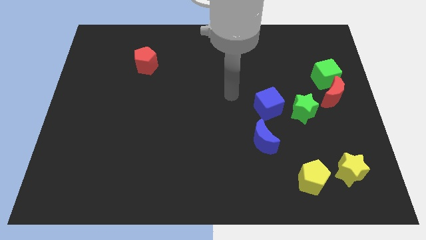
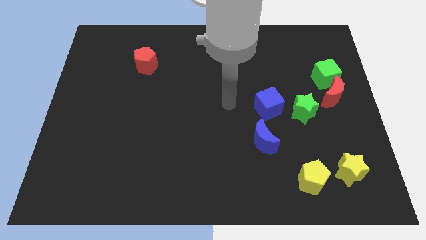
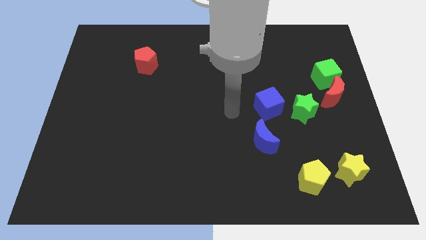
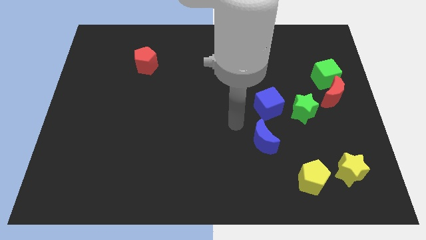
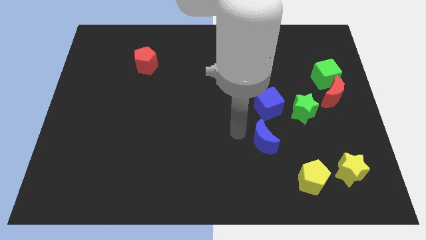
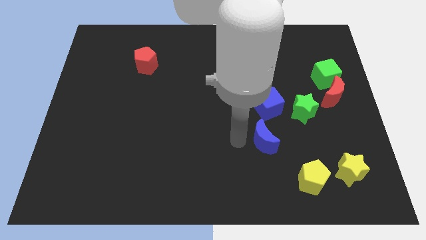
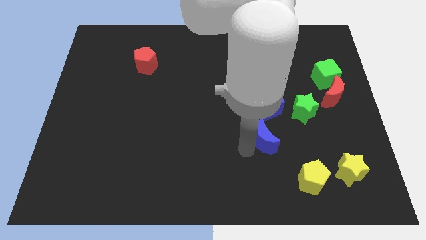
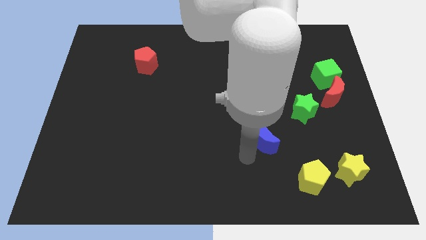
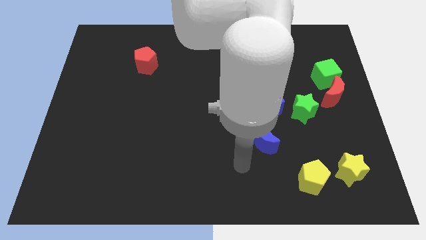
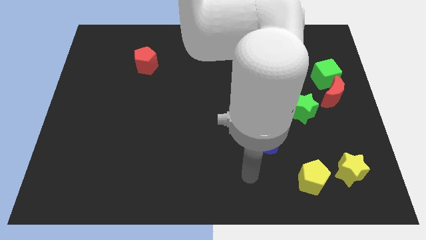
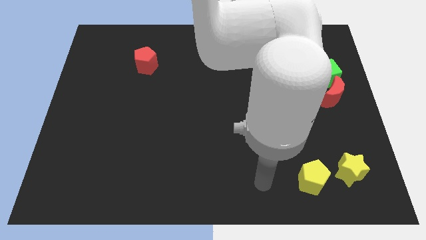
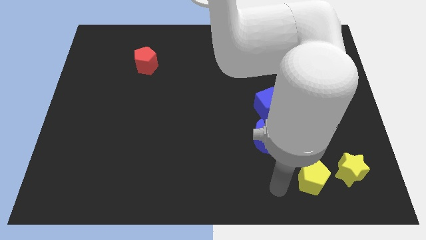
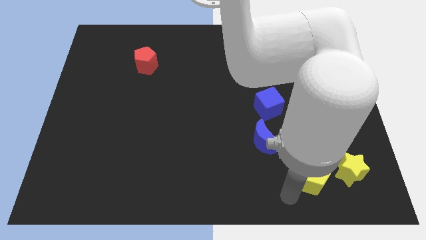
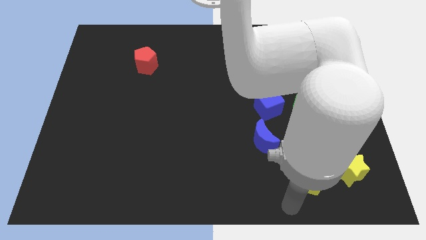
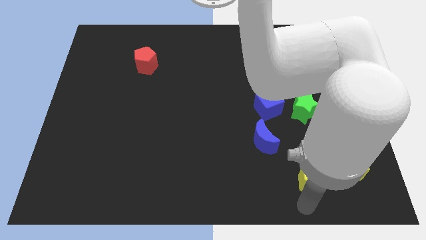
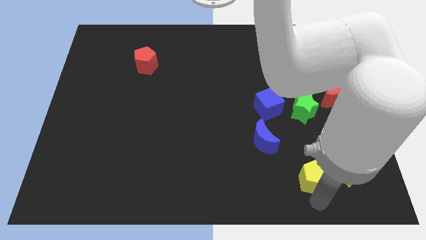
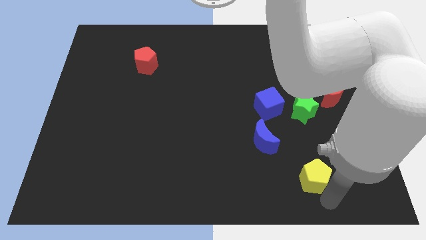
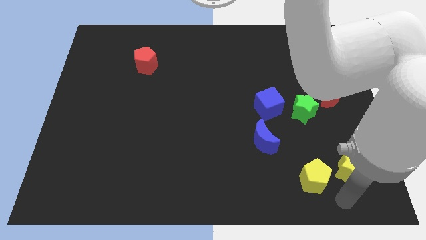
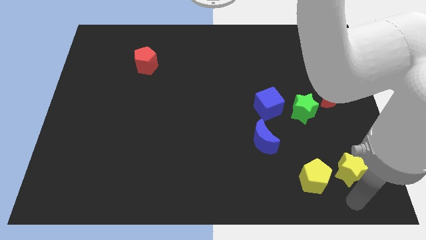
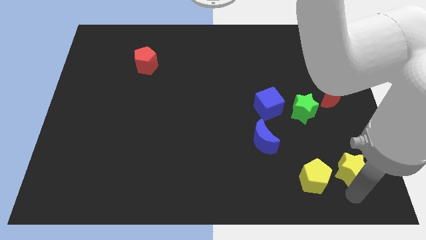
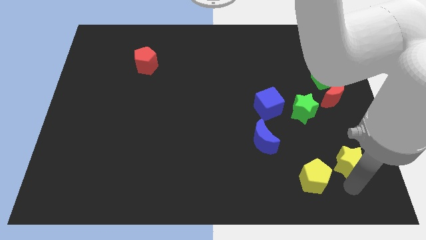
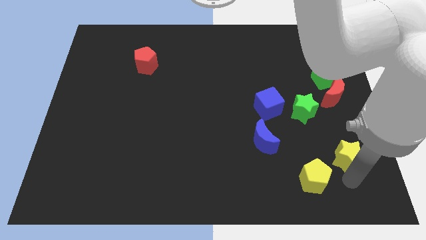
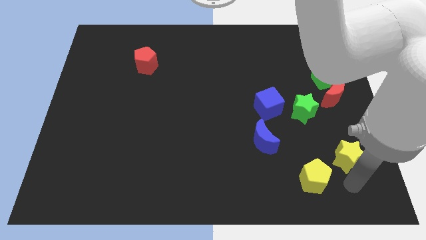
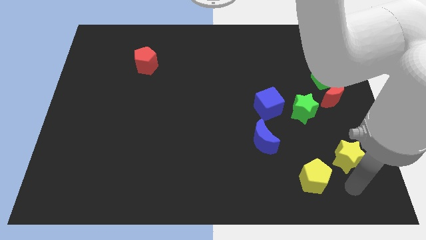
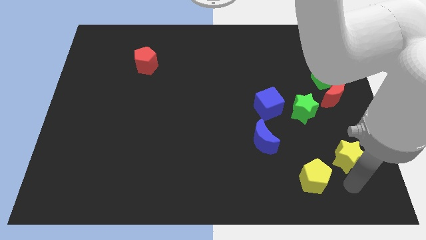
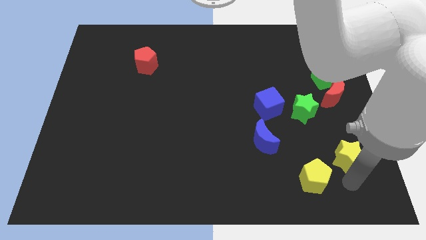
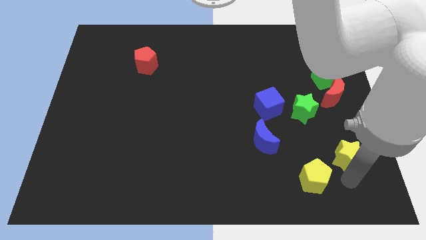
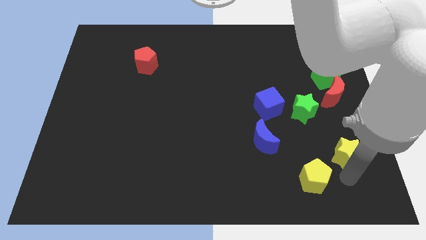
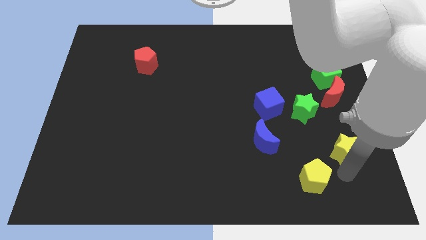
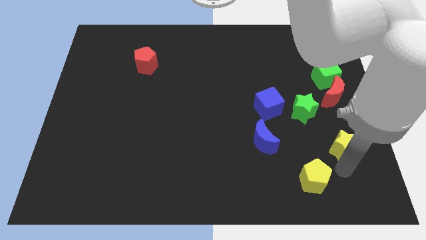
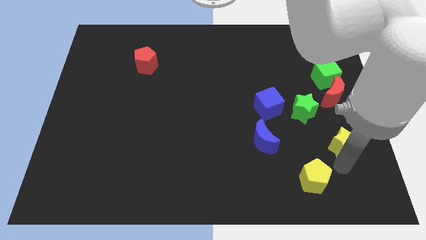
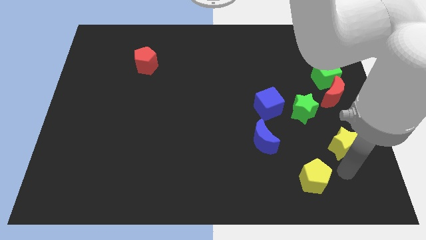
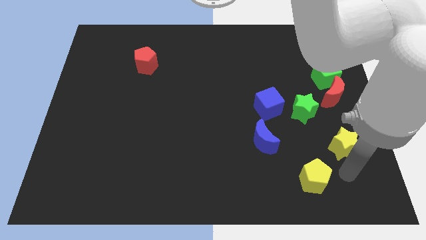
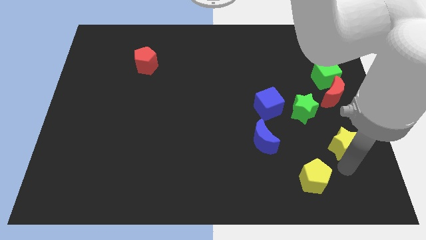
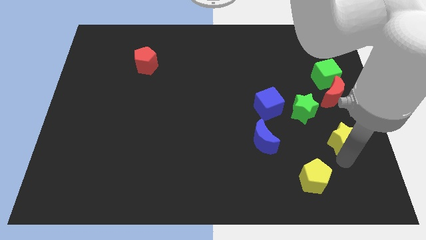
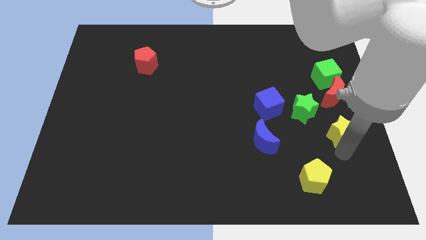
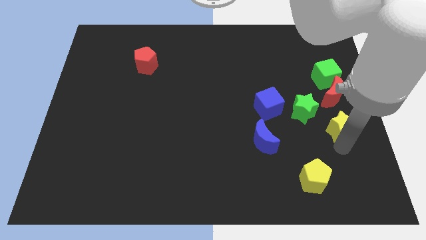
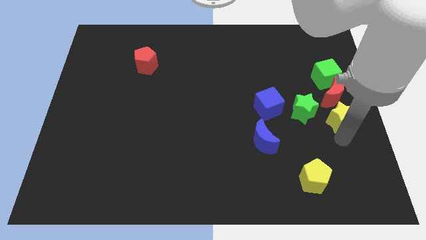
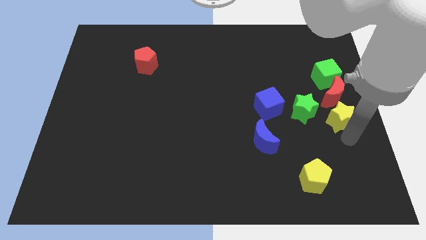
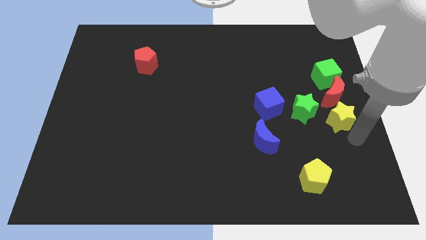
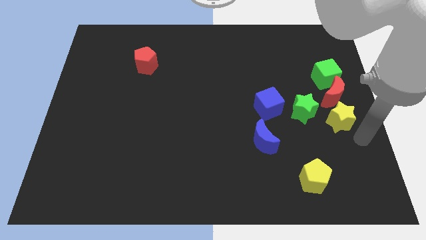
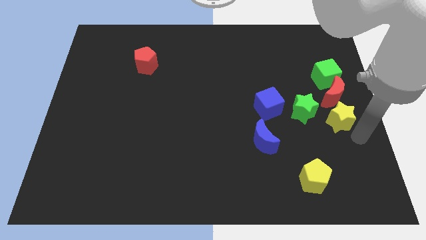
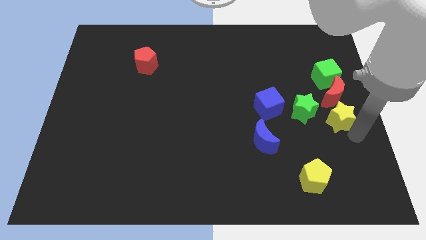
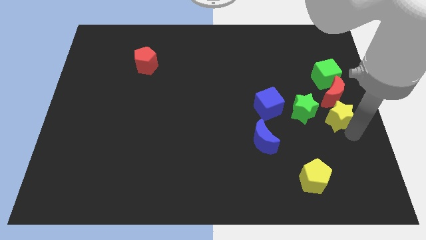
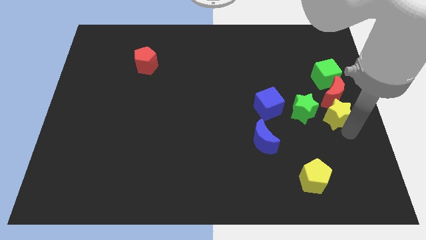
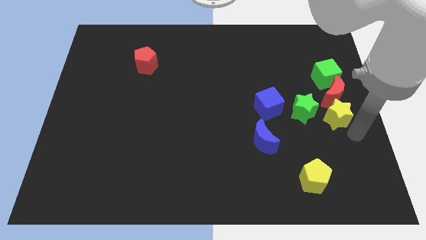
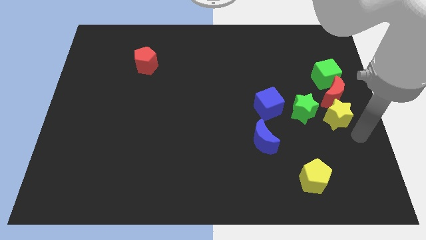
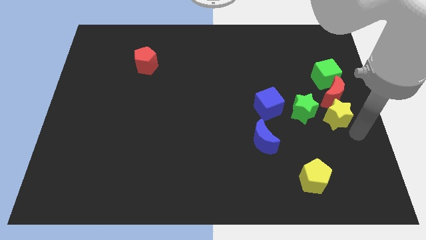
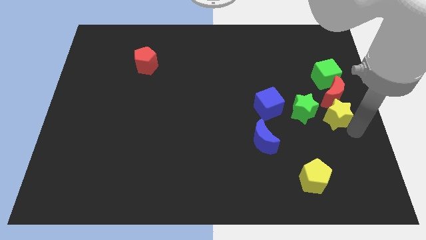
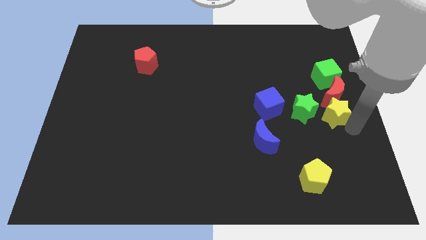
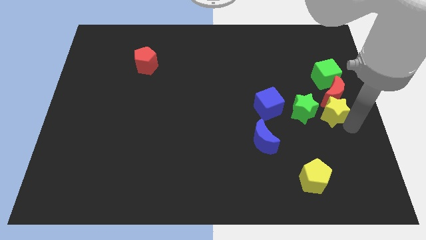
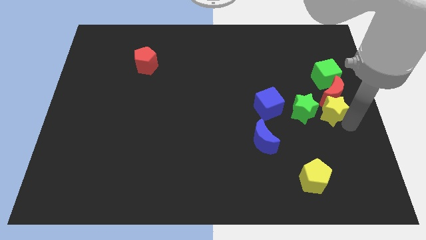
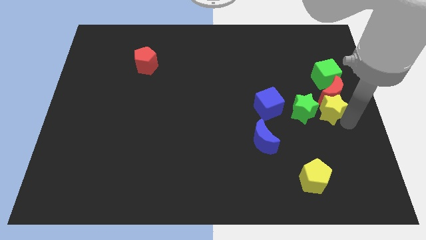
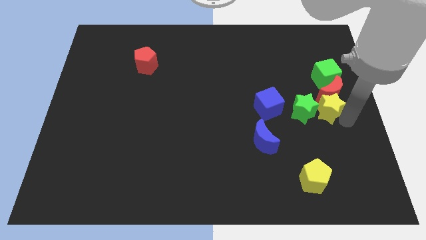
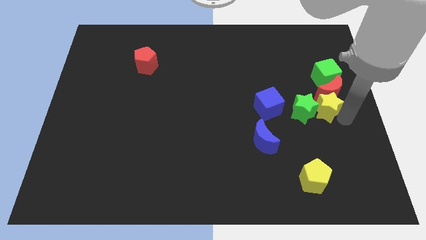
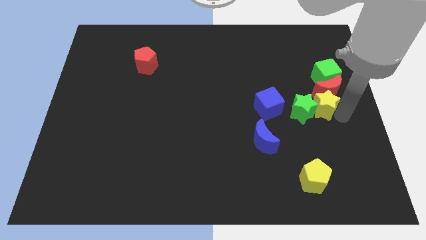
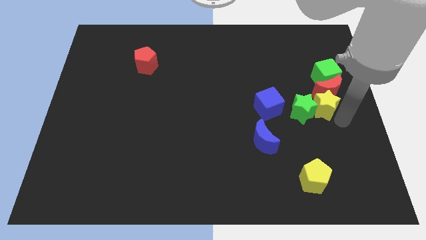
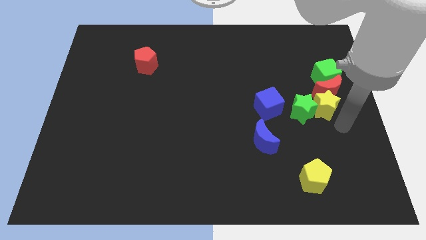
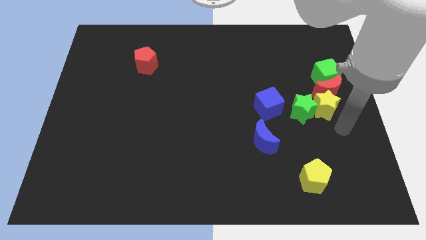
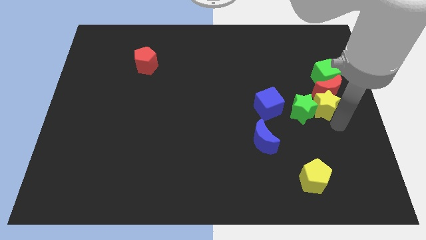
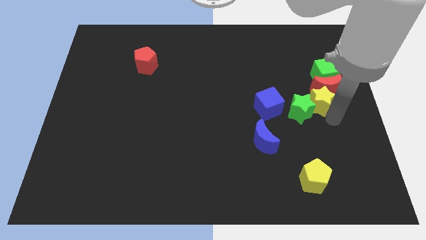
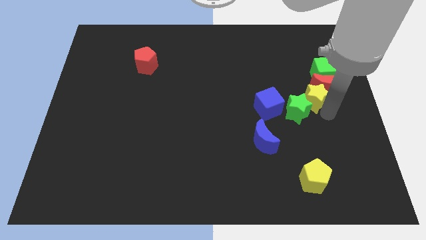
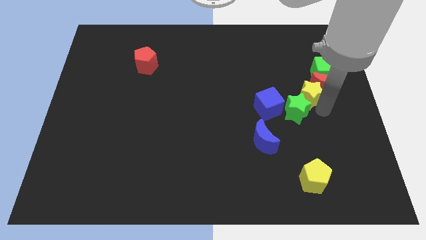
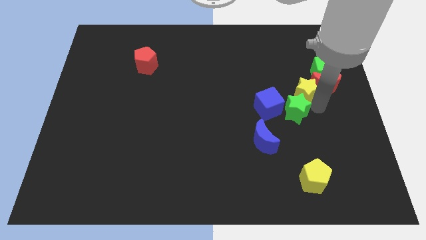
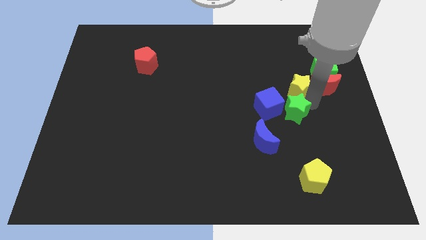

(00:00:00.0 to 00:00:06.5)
push the yellow star up

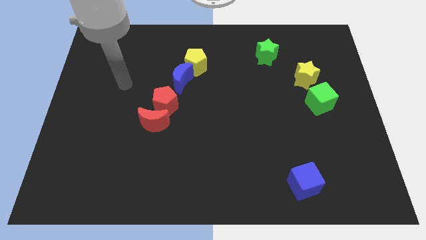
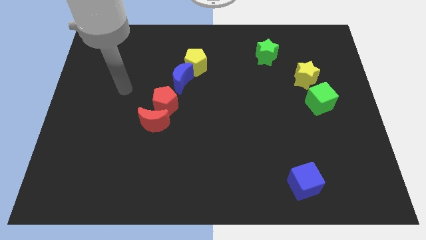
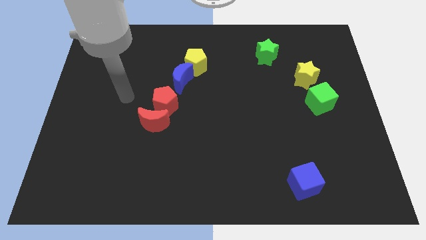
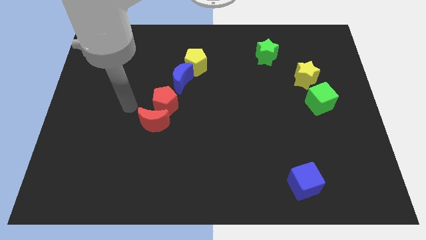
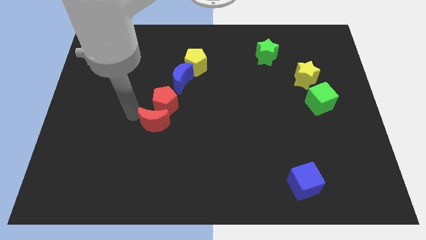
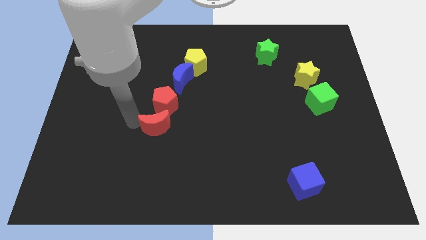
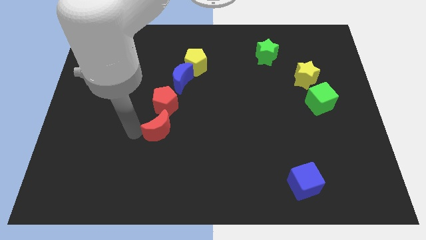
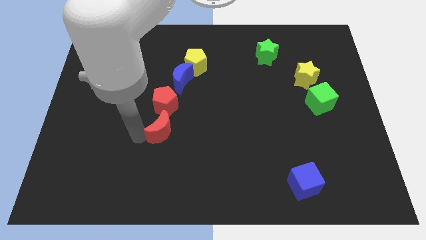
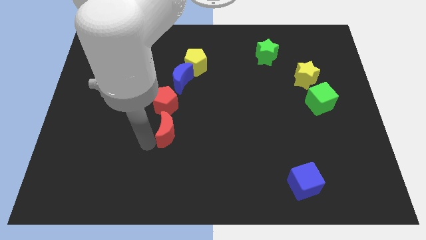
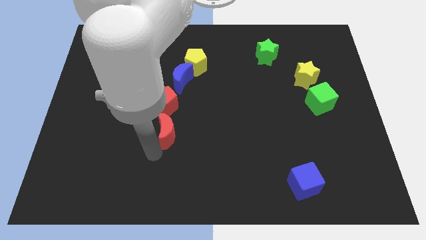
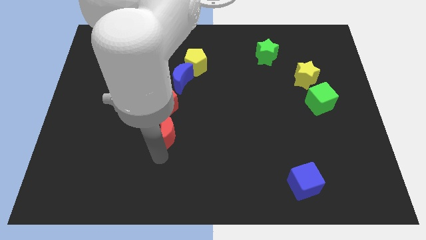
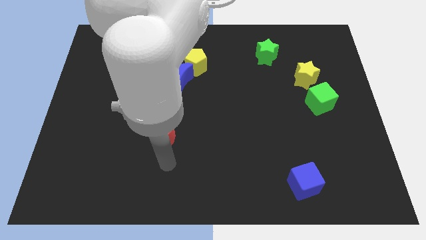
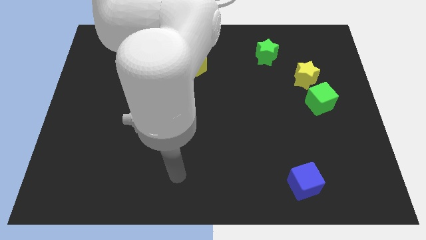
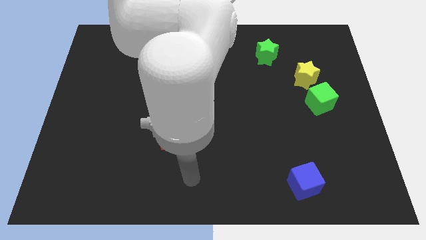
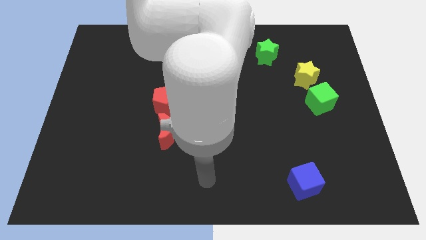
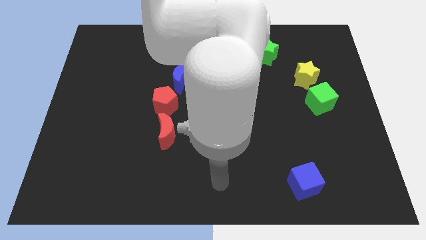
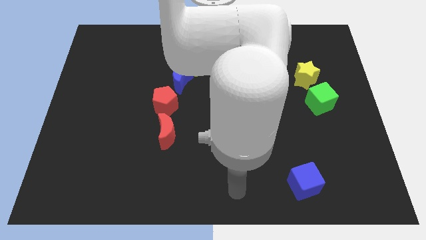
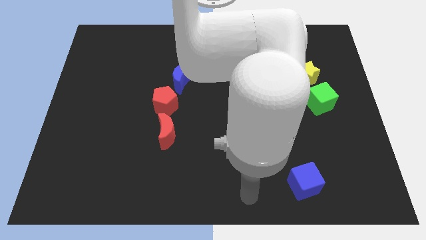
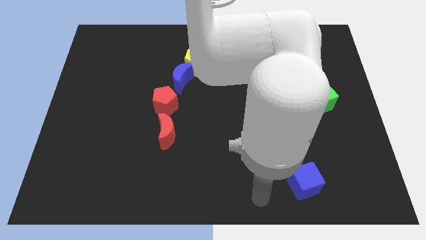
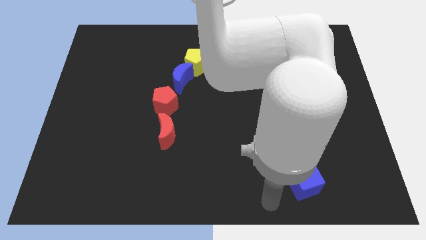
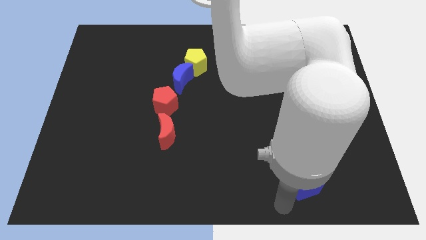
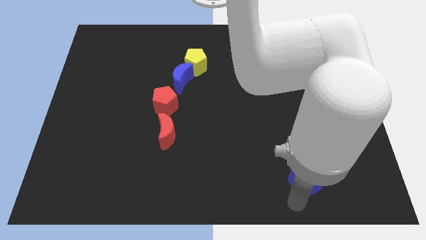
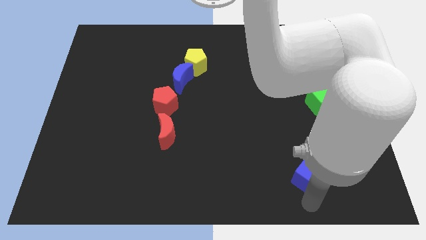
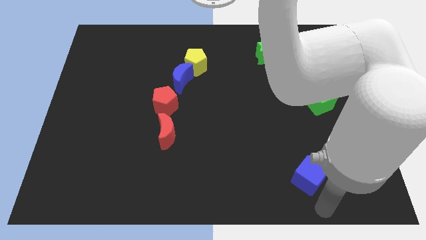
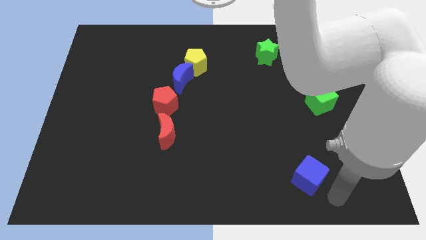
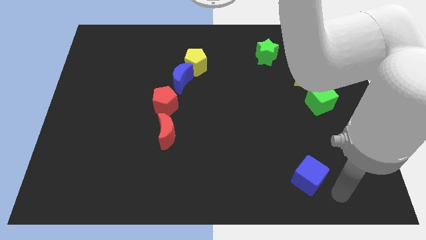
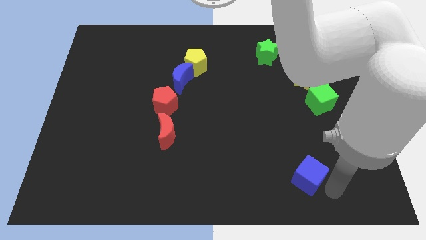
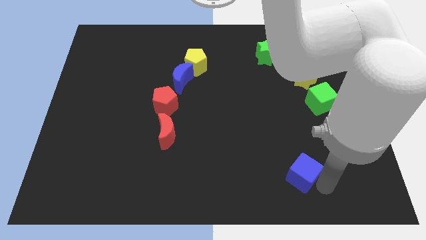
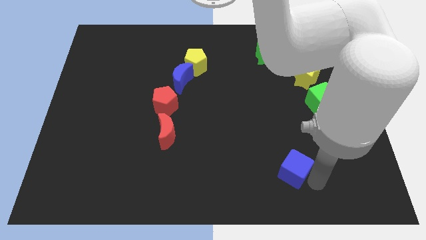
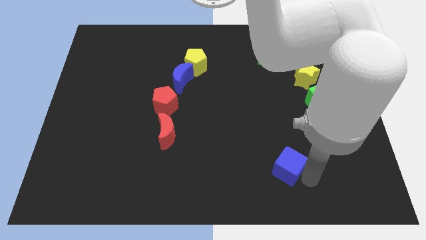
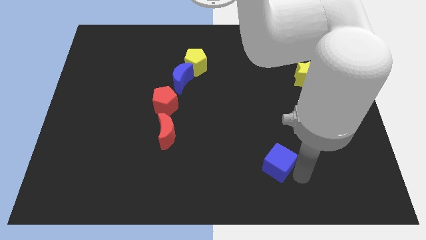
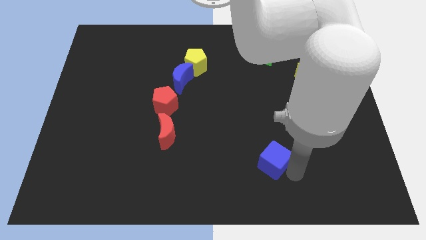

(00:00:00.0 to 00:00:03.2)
slide the blue cube upwards and to the left a little
